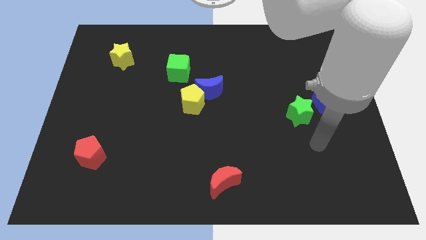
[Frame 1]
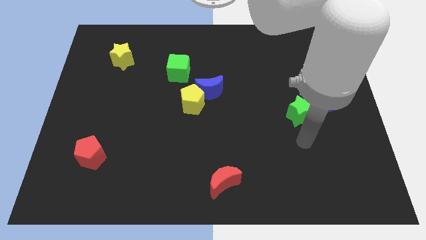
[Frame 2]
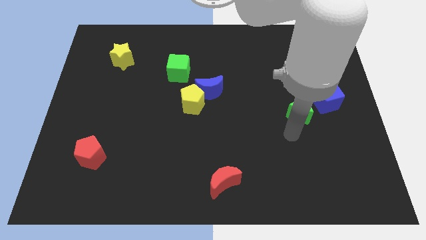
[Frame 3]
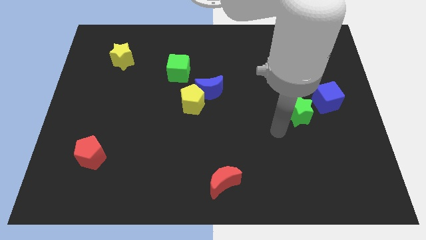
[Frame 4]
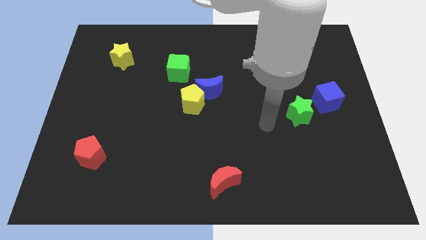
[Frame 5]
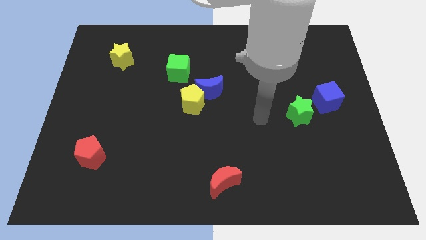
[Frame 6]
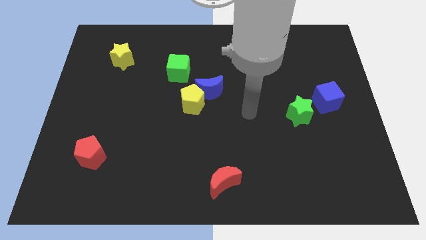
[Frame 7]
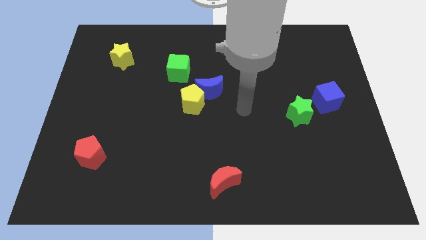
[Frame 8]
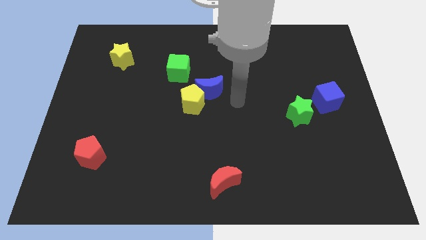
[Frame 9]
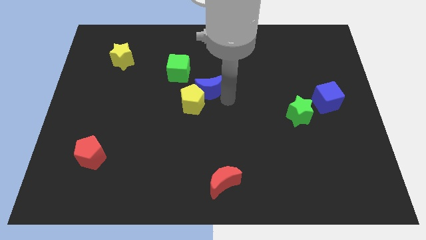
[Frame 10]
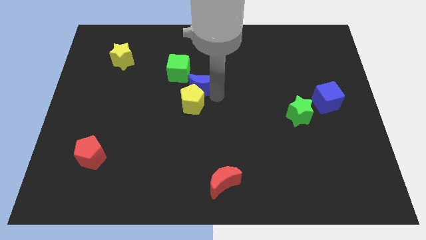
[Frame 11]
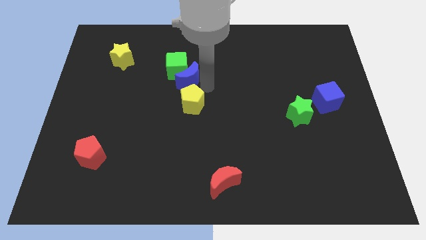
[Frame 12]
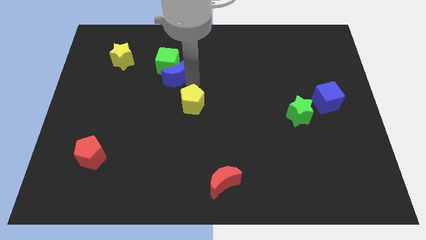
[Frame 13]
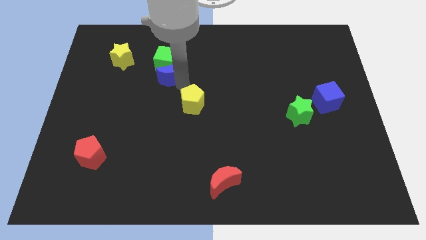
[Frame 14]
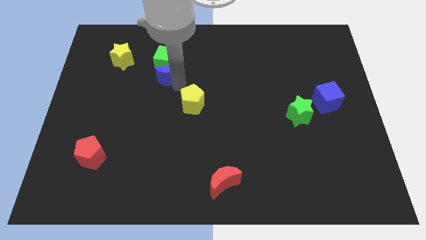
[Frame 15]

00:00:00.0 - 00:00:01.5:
pull the yellow pentagon apart from the blue moon

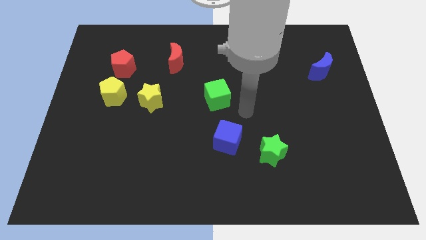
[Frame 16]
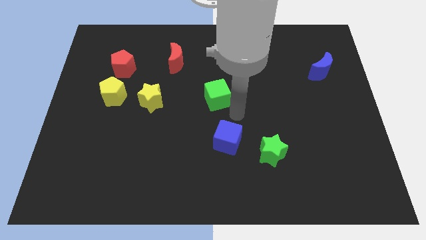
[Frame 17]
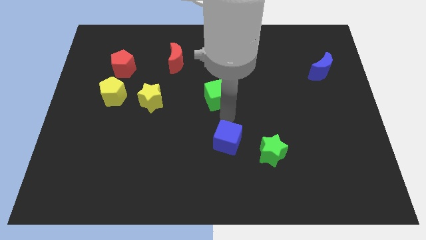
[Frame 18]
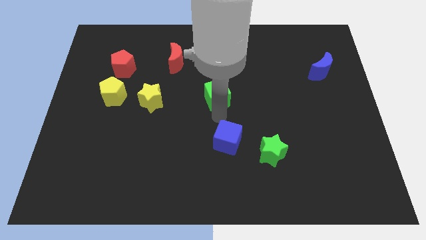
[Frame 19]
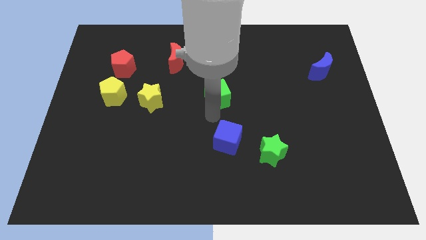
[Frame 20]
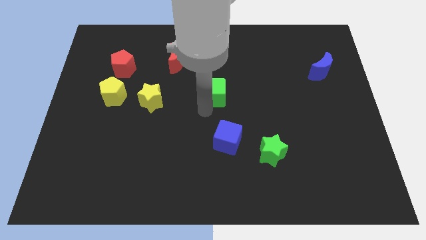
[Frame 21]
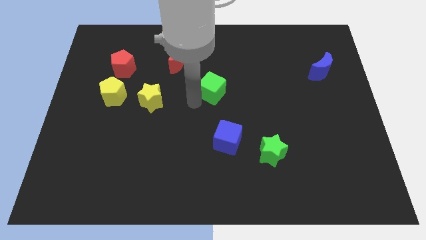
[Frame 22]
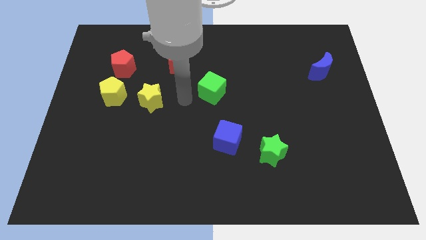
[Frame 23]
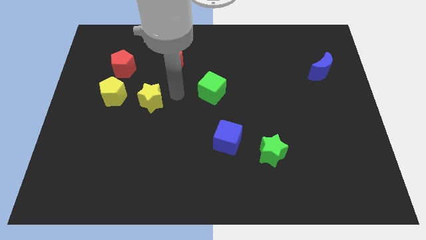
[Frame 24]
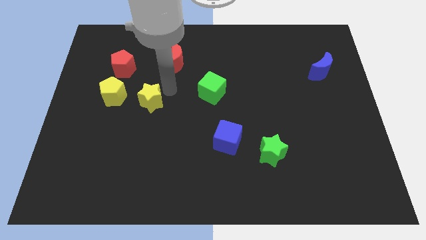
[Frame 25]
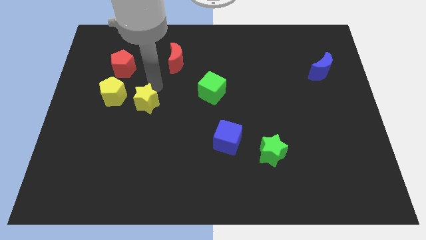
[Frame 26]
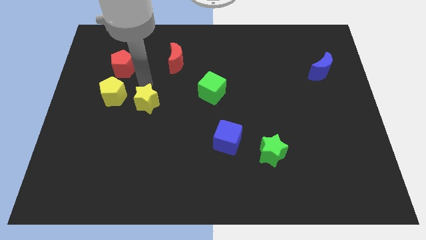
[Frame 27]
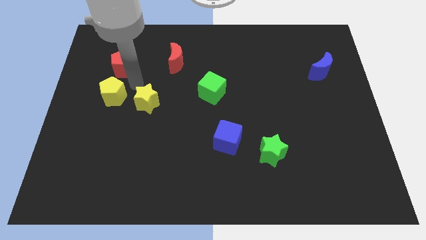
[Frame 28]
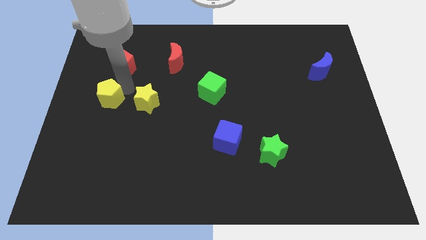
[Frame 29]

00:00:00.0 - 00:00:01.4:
pull the red pentagon apart from the yellow pentagon

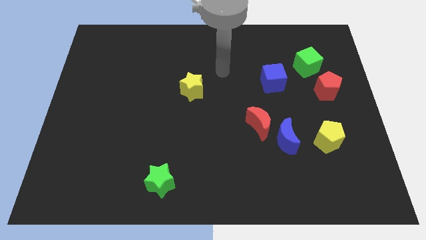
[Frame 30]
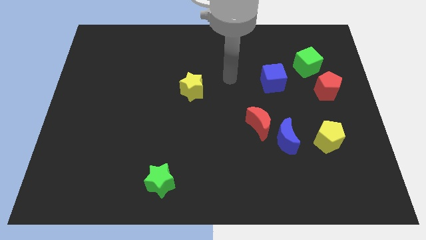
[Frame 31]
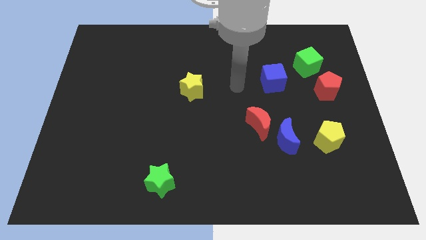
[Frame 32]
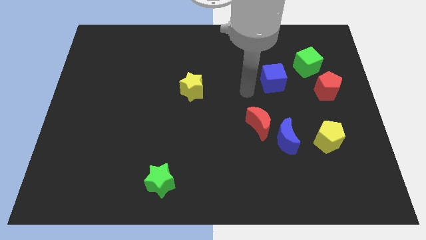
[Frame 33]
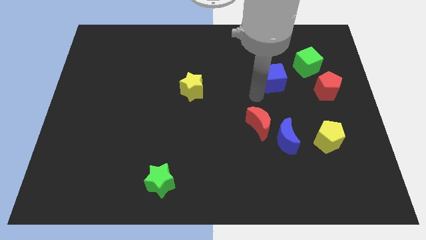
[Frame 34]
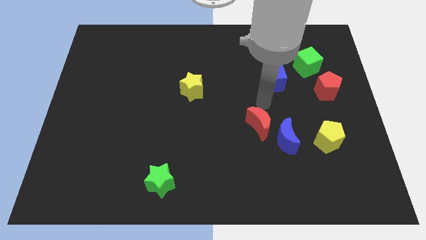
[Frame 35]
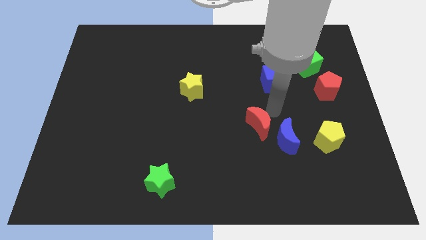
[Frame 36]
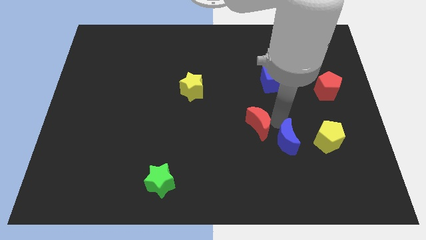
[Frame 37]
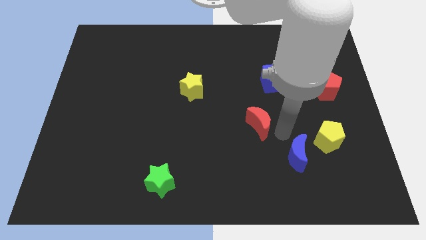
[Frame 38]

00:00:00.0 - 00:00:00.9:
separate the red moon from the blue moon

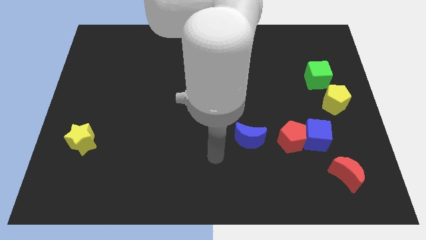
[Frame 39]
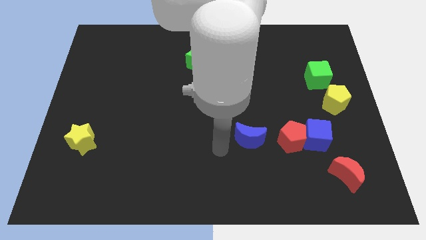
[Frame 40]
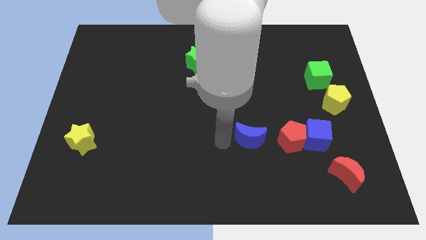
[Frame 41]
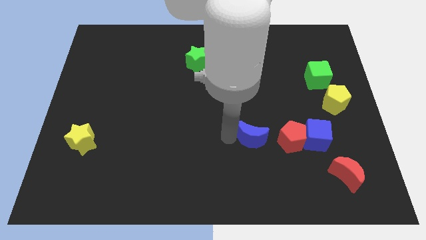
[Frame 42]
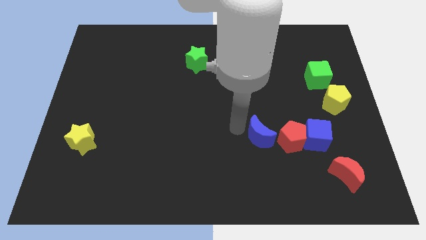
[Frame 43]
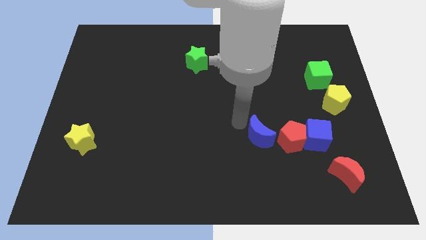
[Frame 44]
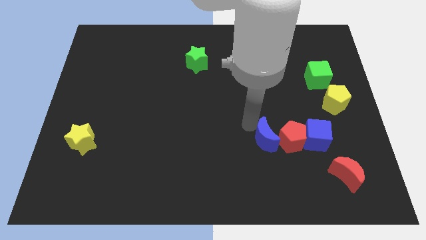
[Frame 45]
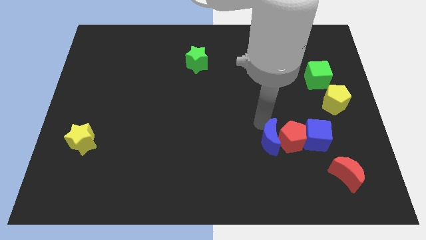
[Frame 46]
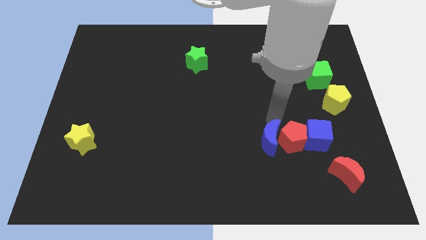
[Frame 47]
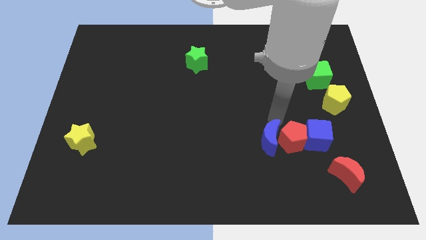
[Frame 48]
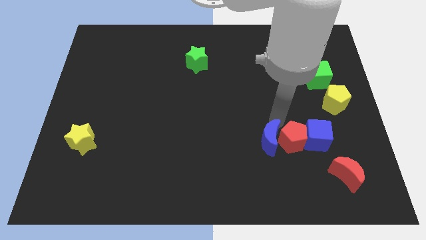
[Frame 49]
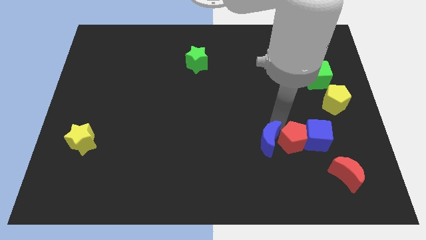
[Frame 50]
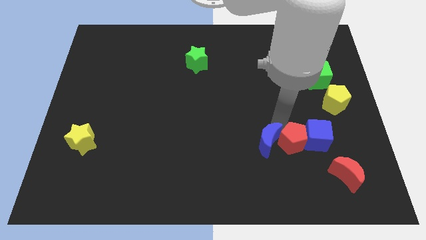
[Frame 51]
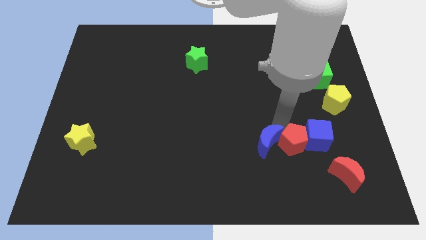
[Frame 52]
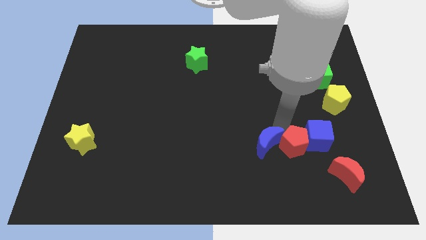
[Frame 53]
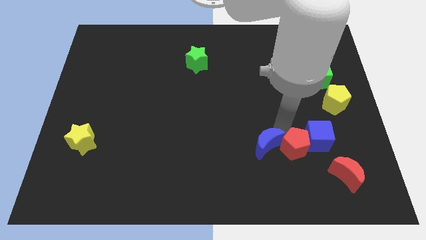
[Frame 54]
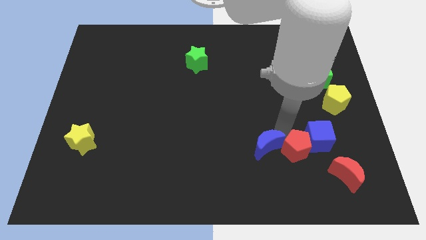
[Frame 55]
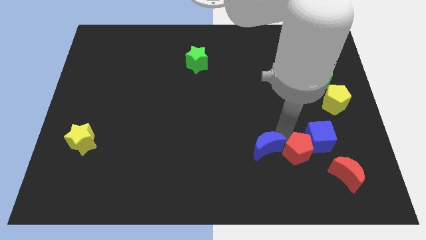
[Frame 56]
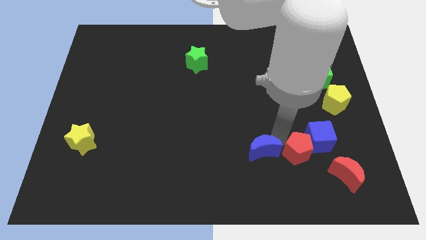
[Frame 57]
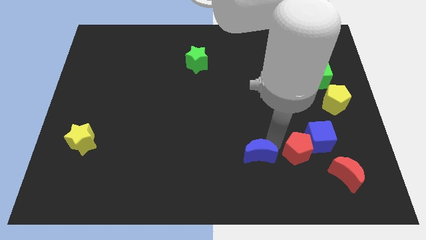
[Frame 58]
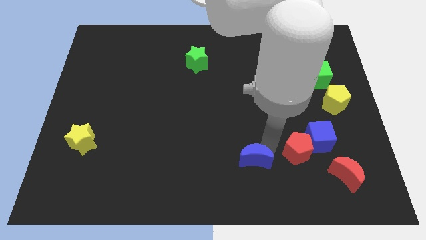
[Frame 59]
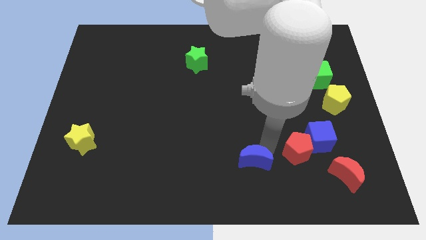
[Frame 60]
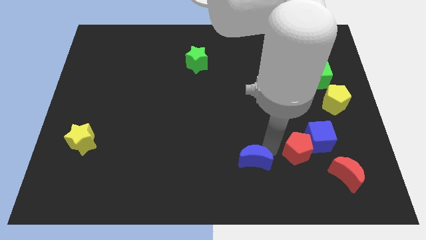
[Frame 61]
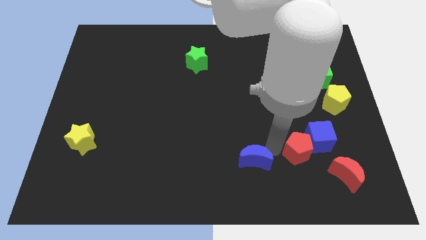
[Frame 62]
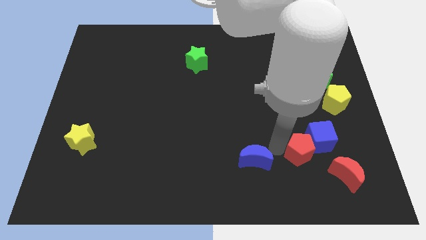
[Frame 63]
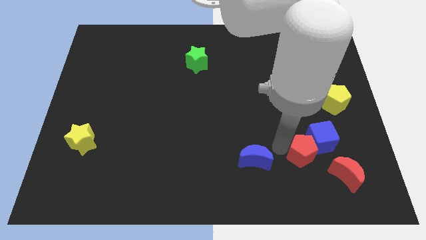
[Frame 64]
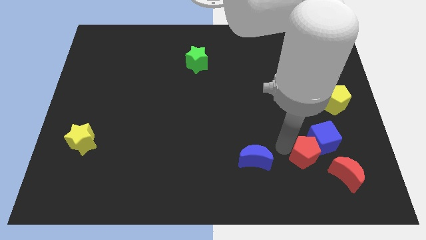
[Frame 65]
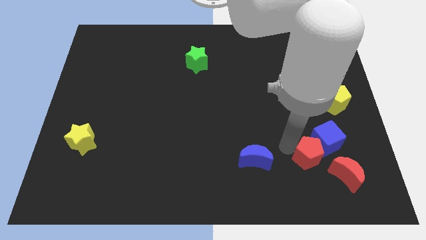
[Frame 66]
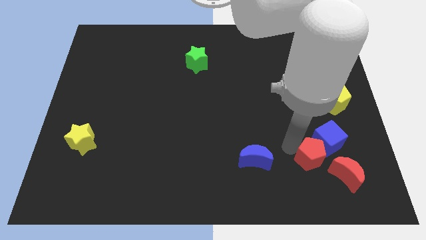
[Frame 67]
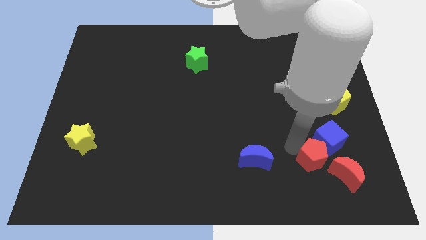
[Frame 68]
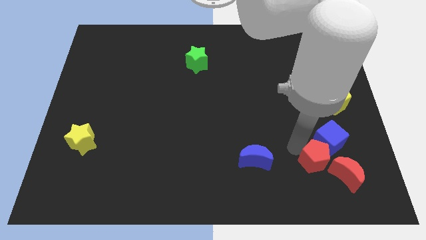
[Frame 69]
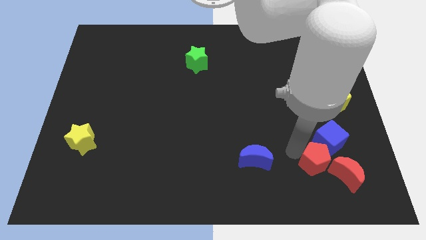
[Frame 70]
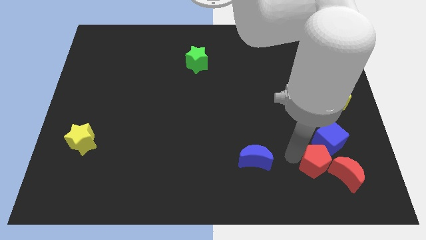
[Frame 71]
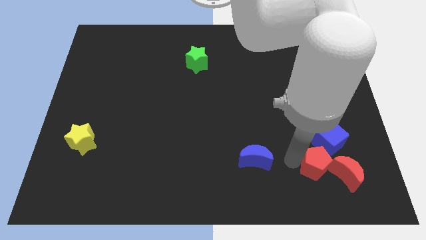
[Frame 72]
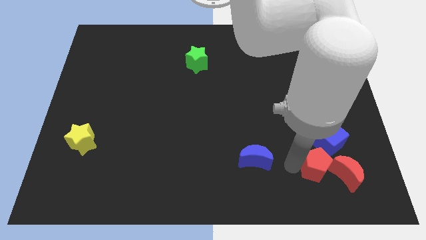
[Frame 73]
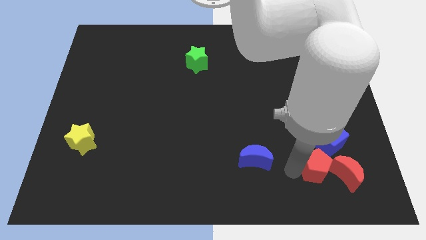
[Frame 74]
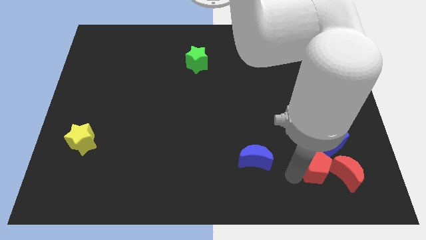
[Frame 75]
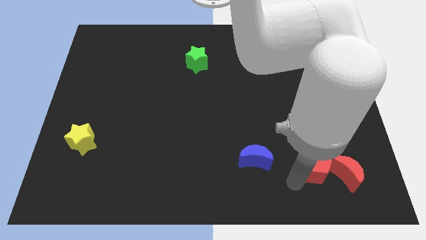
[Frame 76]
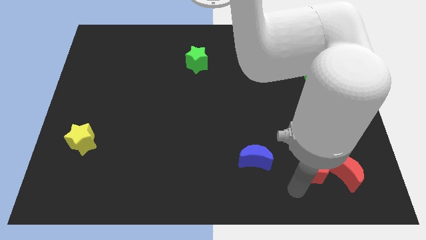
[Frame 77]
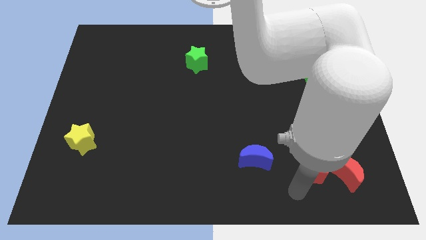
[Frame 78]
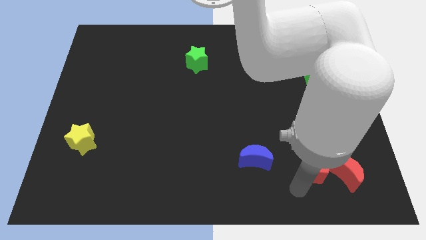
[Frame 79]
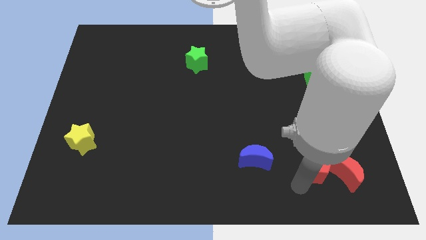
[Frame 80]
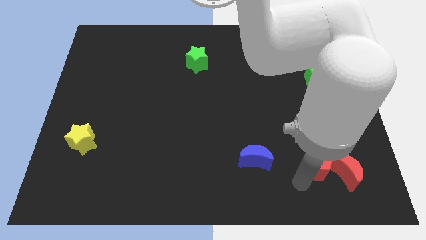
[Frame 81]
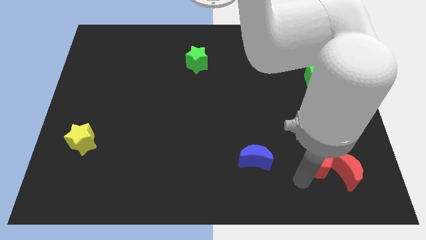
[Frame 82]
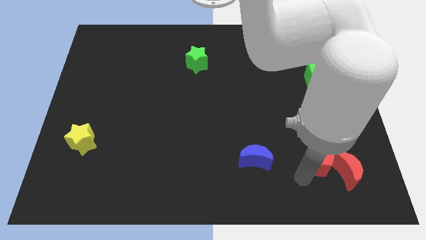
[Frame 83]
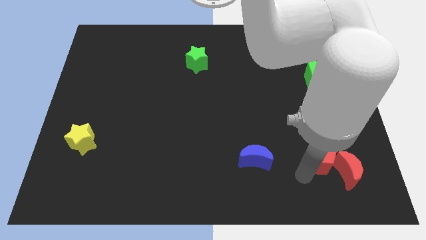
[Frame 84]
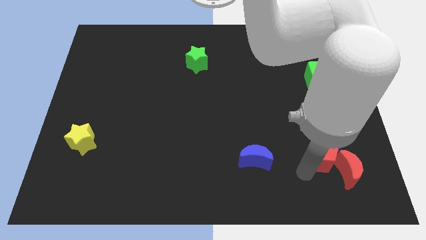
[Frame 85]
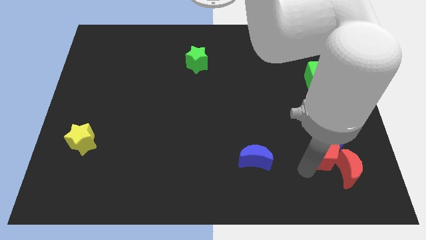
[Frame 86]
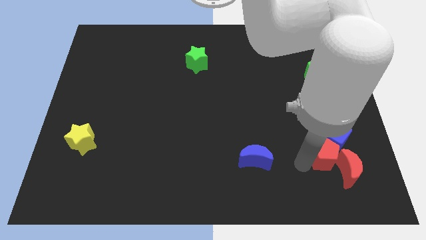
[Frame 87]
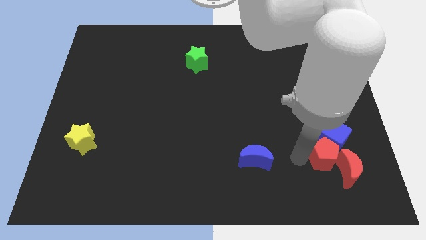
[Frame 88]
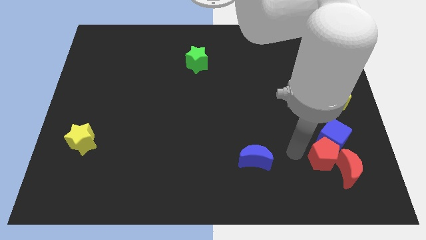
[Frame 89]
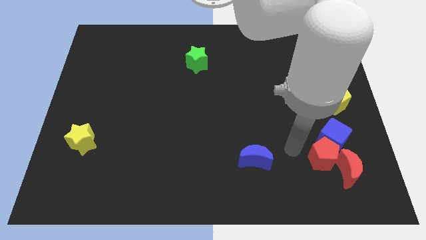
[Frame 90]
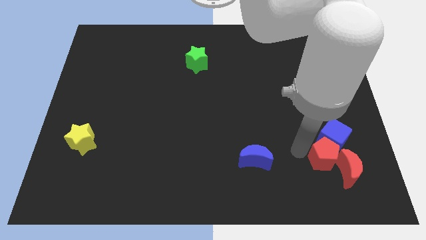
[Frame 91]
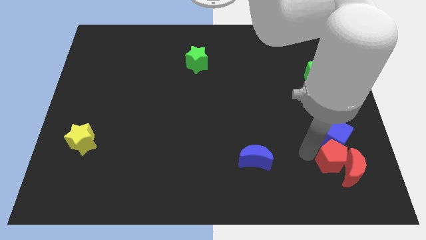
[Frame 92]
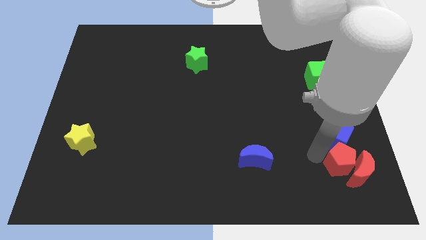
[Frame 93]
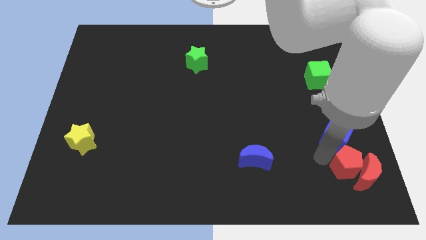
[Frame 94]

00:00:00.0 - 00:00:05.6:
pull the red pentagon apart from the blue cube and blue moon
